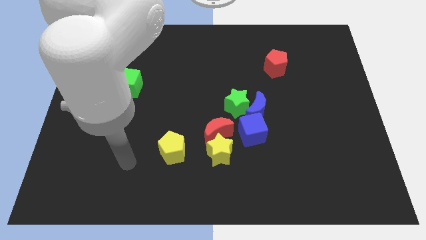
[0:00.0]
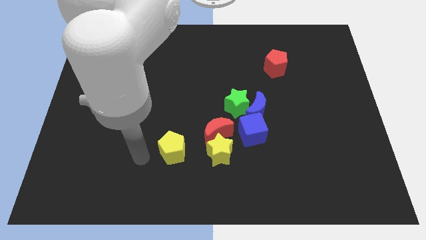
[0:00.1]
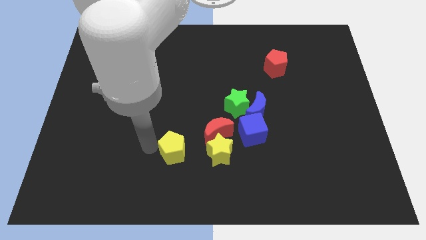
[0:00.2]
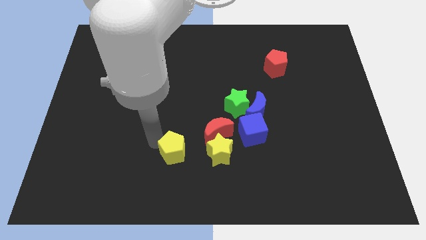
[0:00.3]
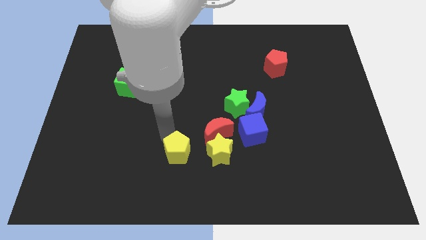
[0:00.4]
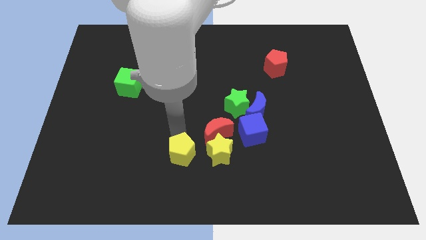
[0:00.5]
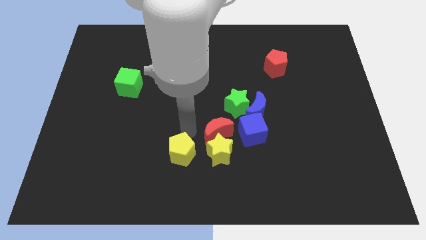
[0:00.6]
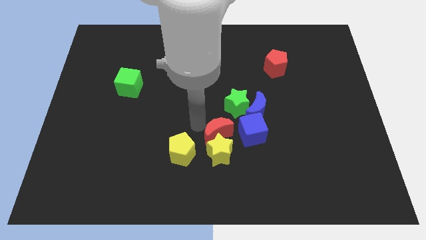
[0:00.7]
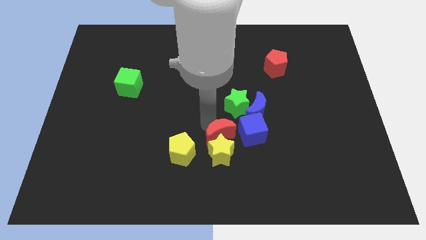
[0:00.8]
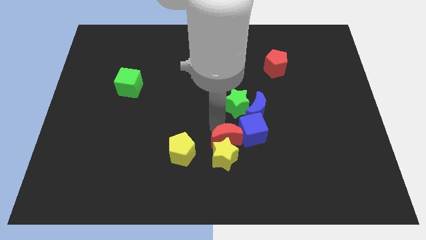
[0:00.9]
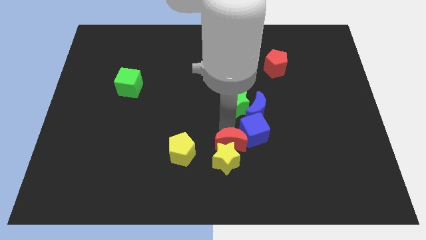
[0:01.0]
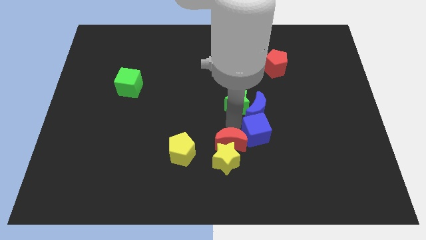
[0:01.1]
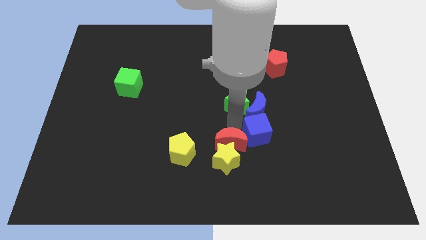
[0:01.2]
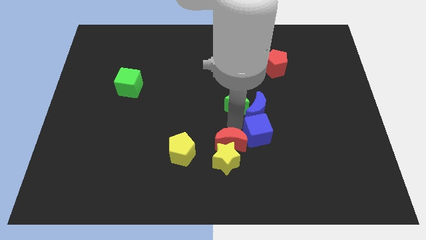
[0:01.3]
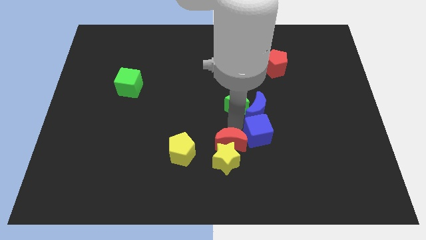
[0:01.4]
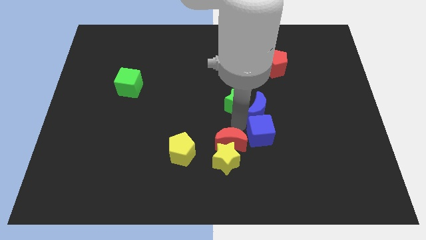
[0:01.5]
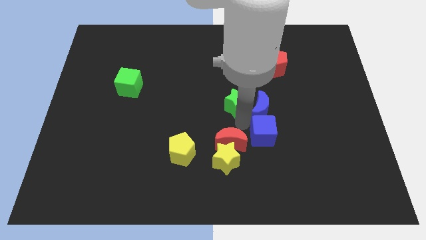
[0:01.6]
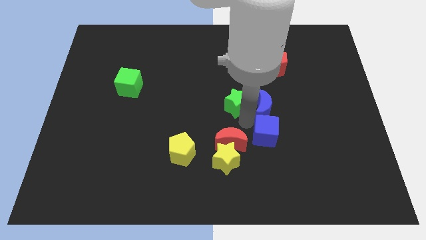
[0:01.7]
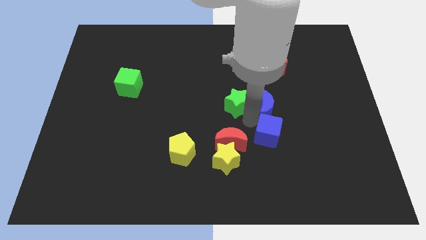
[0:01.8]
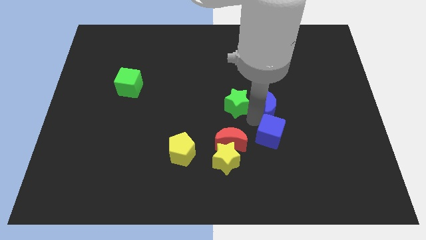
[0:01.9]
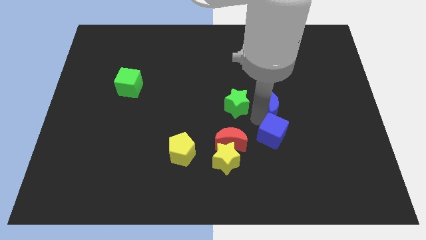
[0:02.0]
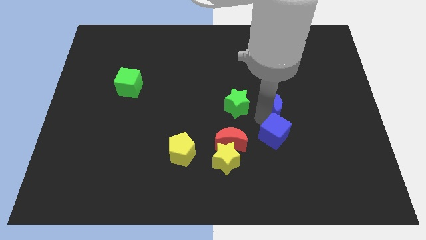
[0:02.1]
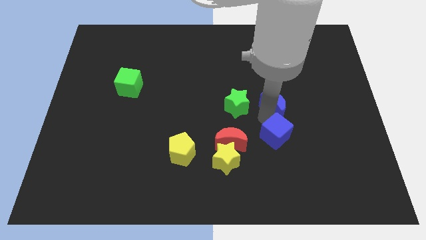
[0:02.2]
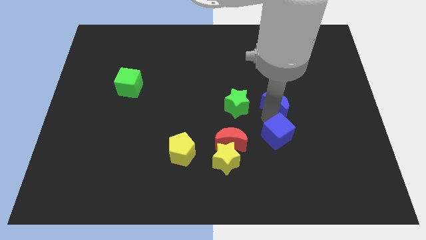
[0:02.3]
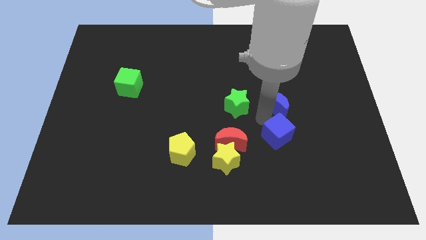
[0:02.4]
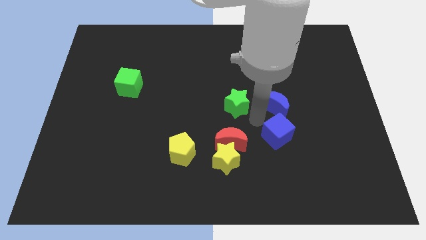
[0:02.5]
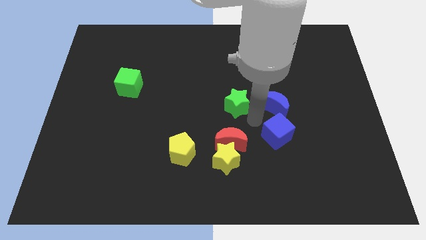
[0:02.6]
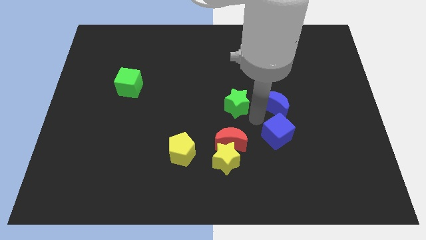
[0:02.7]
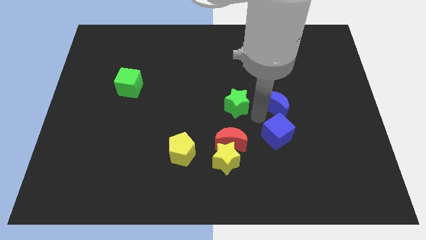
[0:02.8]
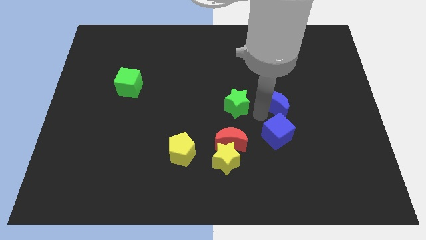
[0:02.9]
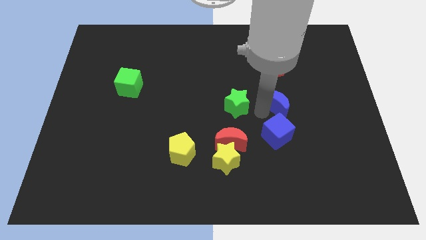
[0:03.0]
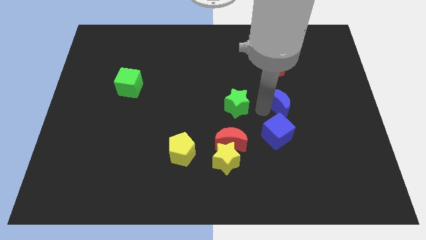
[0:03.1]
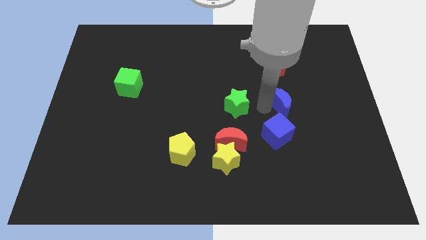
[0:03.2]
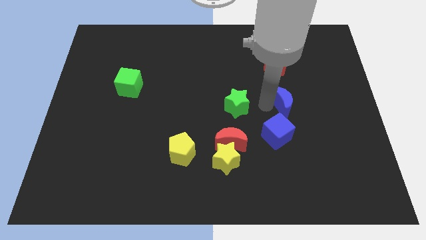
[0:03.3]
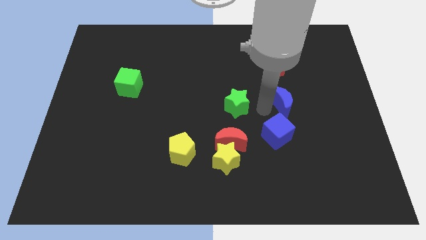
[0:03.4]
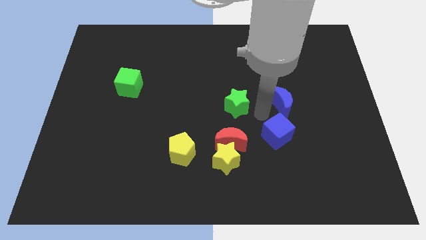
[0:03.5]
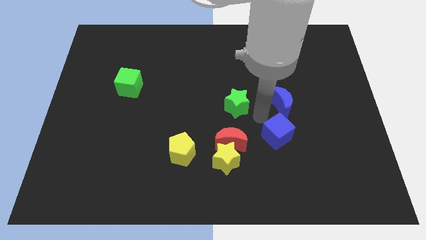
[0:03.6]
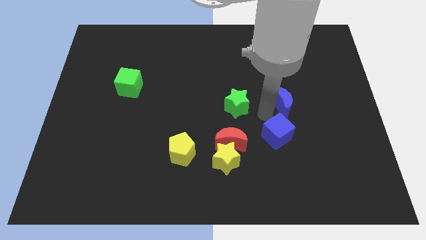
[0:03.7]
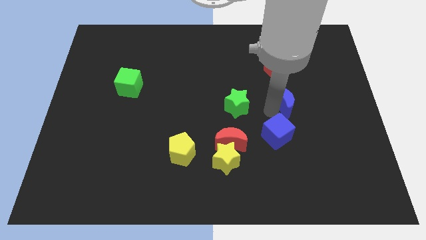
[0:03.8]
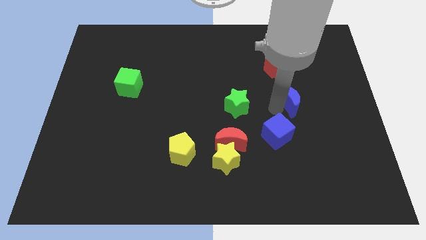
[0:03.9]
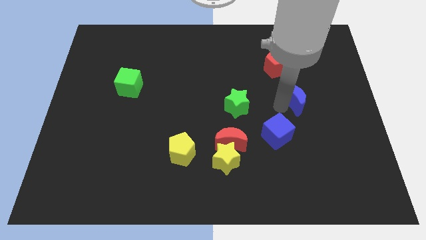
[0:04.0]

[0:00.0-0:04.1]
move the blue moon away from the green star and blue cube

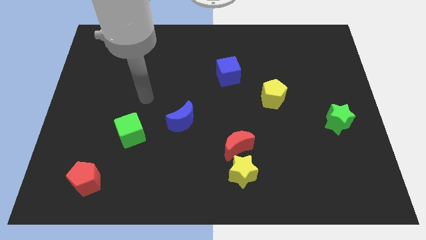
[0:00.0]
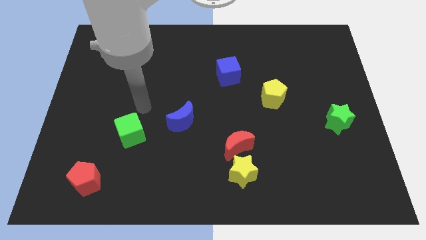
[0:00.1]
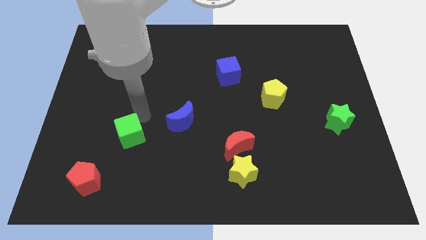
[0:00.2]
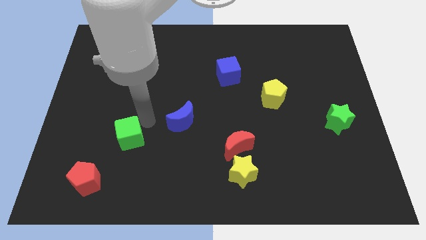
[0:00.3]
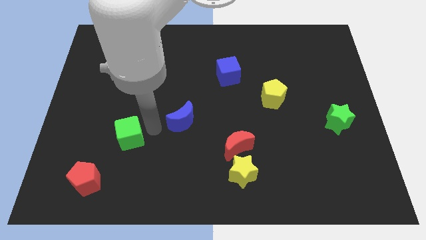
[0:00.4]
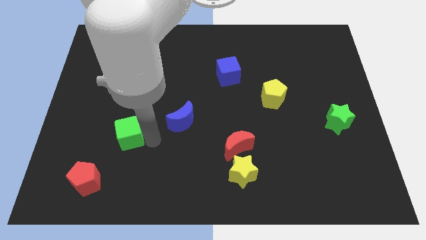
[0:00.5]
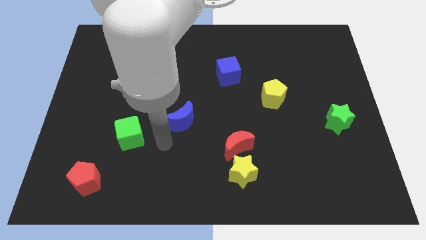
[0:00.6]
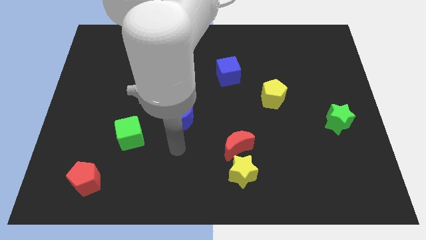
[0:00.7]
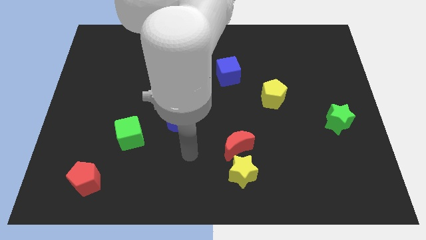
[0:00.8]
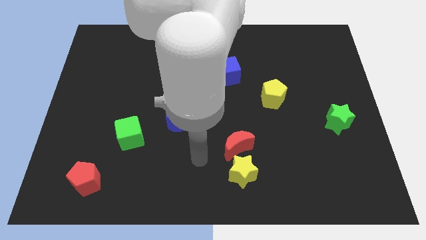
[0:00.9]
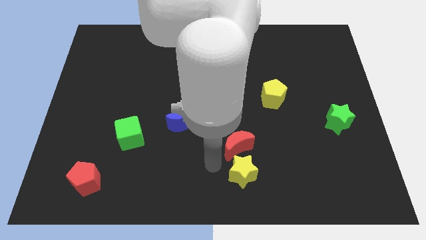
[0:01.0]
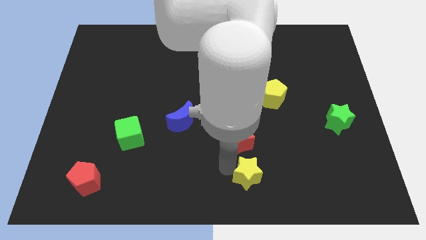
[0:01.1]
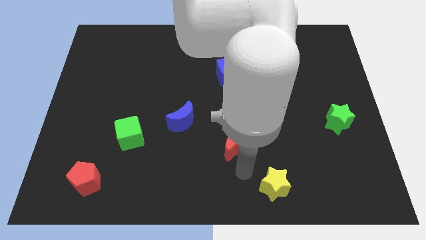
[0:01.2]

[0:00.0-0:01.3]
move the red moon away from the yellow star

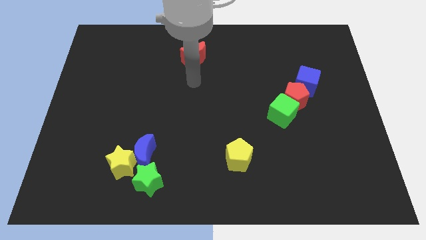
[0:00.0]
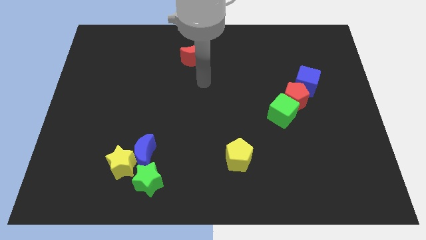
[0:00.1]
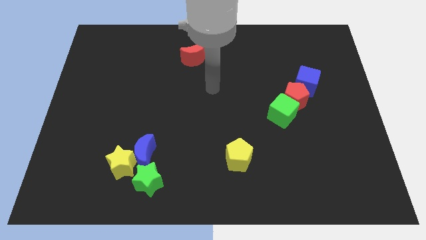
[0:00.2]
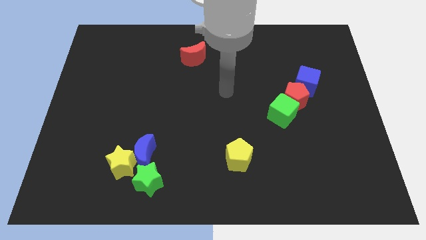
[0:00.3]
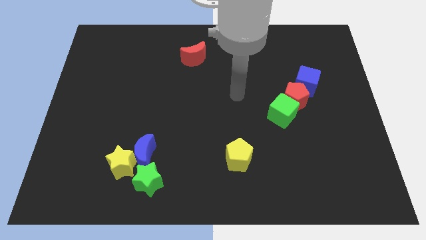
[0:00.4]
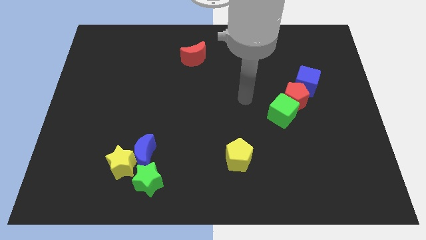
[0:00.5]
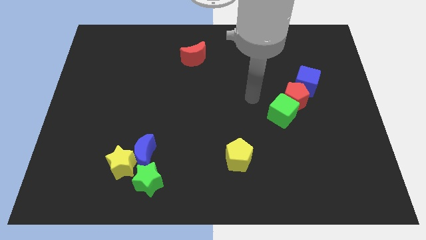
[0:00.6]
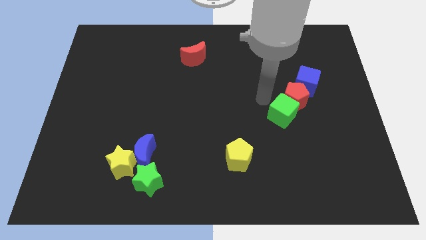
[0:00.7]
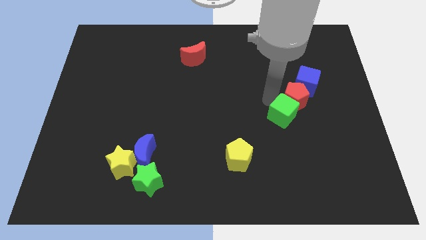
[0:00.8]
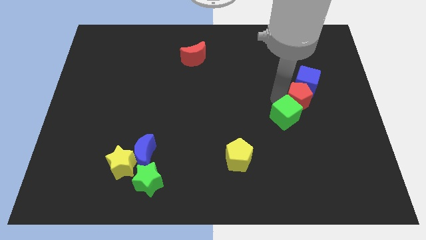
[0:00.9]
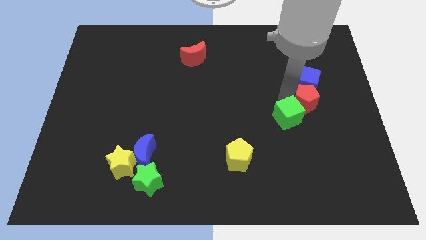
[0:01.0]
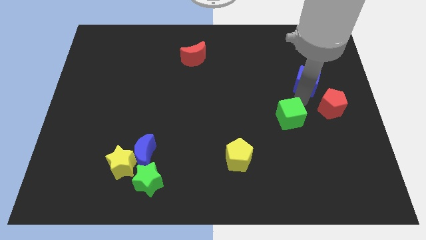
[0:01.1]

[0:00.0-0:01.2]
move the green cube away from the red pentagon

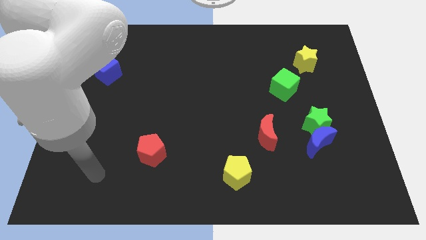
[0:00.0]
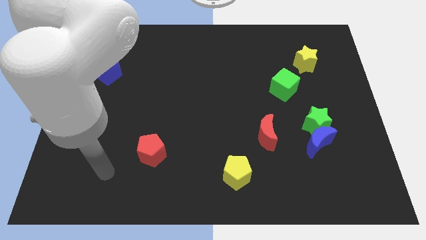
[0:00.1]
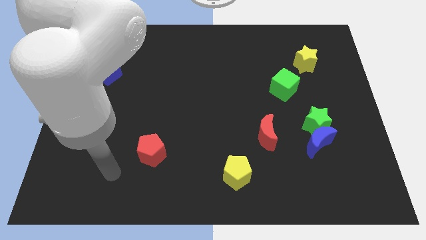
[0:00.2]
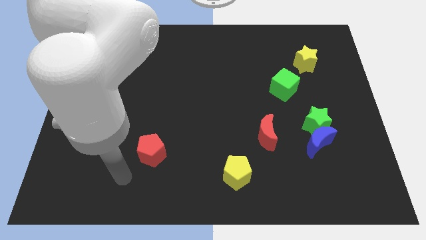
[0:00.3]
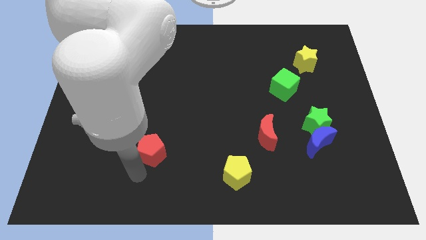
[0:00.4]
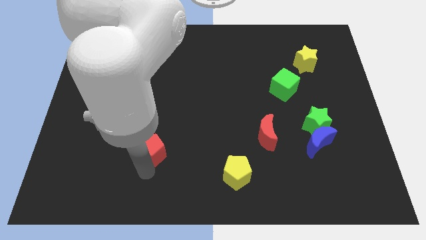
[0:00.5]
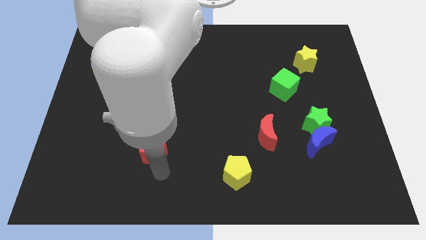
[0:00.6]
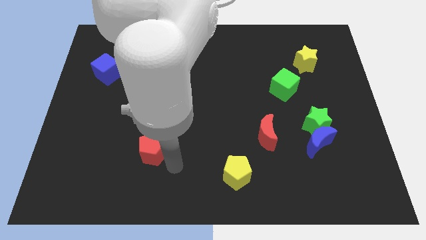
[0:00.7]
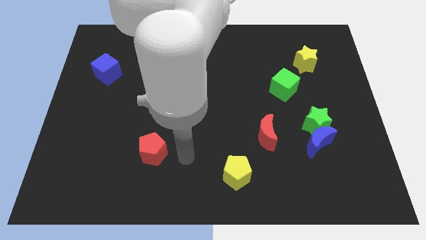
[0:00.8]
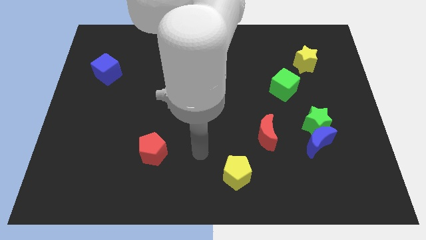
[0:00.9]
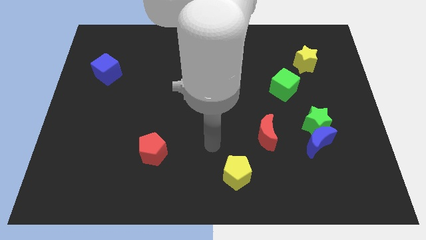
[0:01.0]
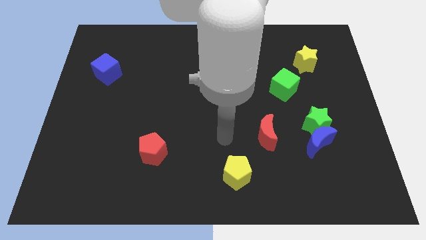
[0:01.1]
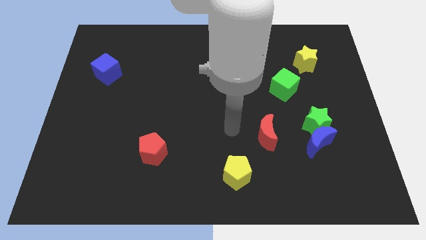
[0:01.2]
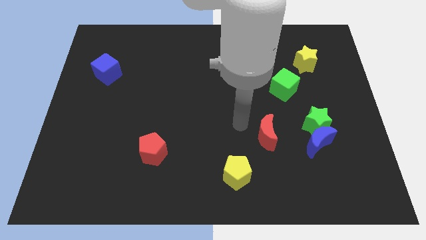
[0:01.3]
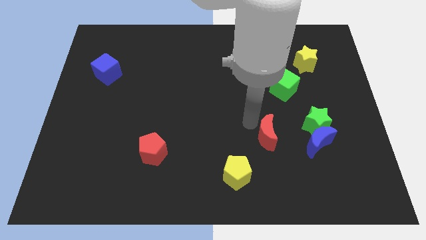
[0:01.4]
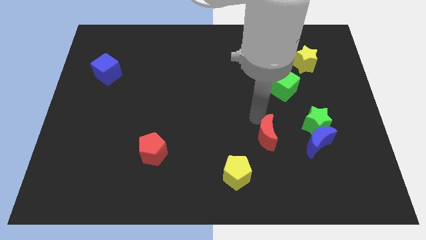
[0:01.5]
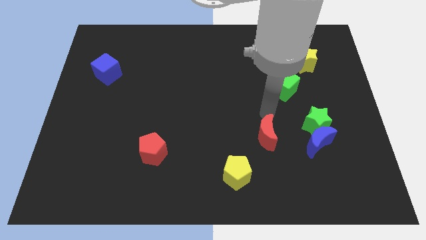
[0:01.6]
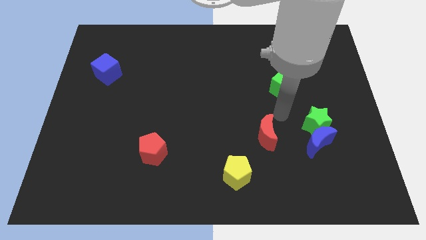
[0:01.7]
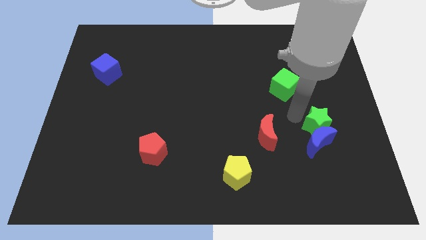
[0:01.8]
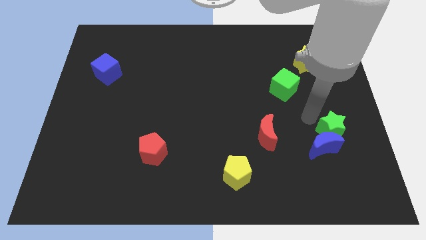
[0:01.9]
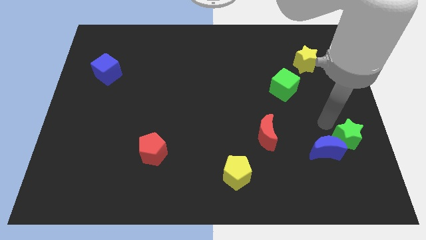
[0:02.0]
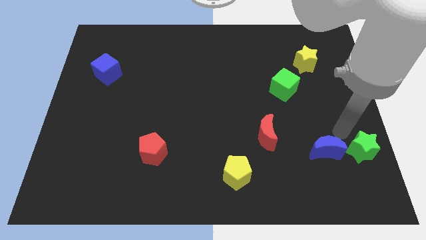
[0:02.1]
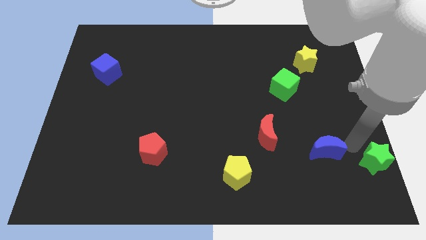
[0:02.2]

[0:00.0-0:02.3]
move the blue moon away from the green star

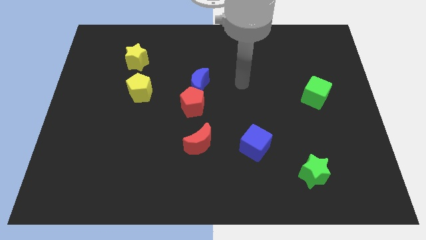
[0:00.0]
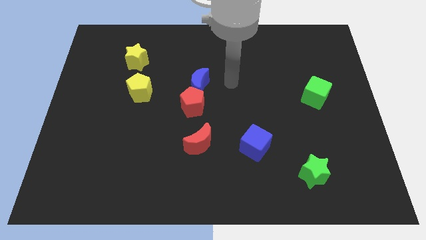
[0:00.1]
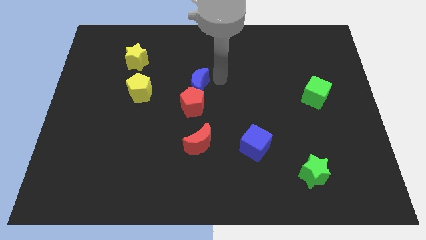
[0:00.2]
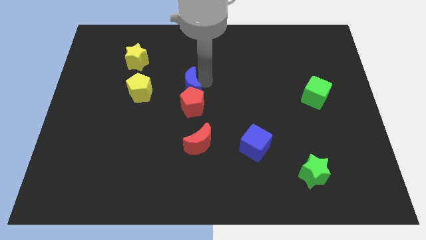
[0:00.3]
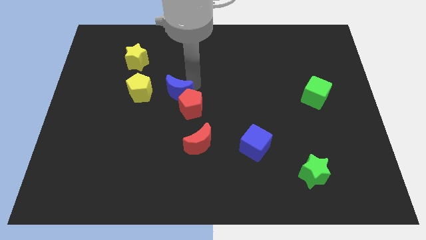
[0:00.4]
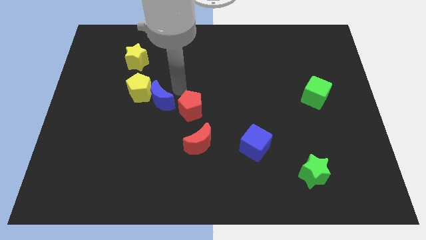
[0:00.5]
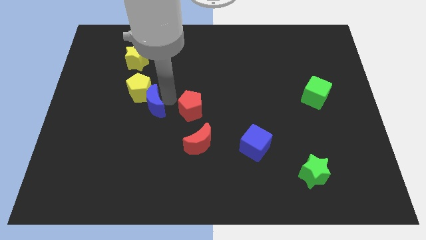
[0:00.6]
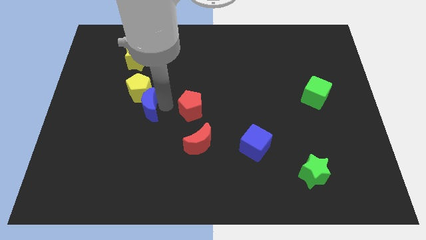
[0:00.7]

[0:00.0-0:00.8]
separate the red pentagon from the blue moon
